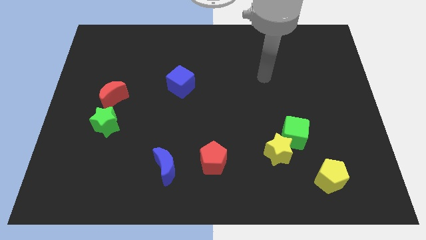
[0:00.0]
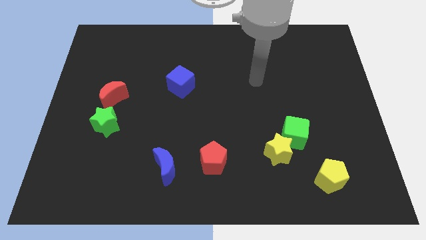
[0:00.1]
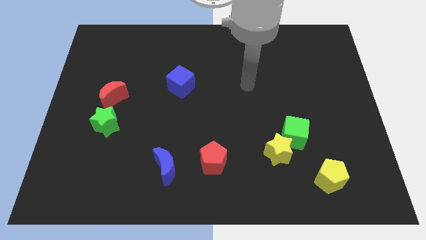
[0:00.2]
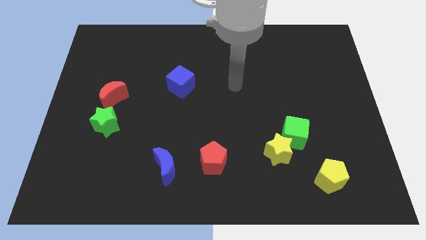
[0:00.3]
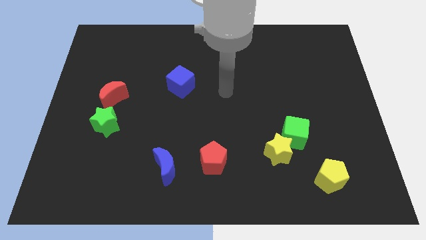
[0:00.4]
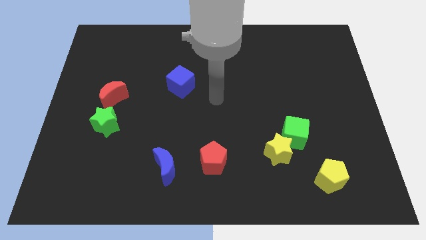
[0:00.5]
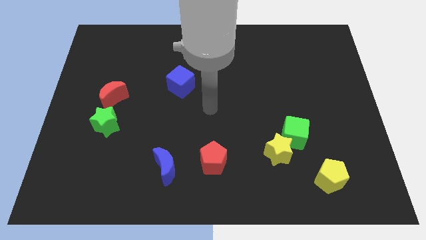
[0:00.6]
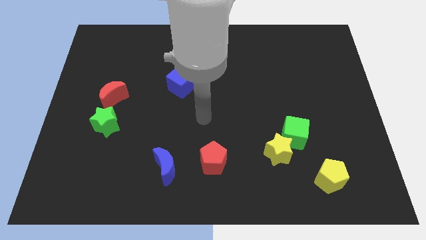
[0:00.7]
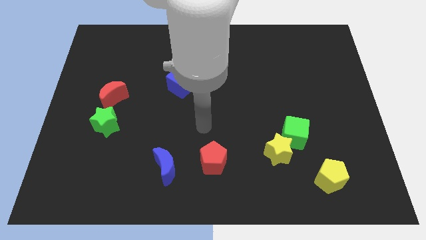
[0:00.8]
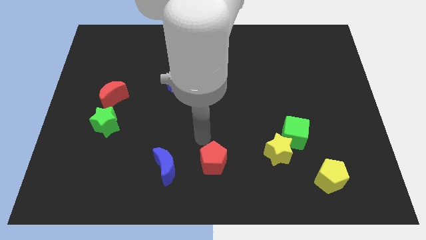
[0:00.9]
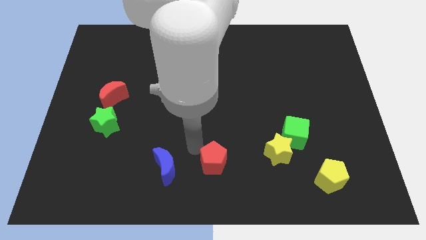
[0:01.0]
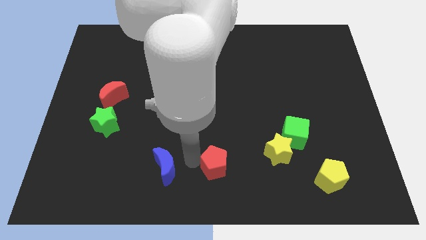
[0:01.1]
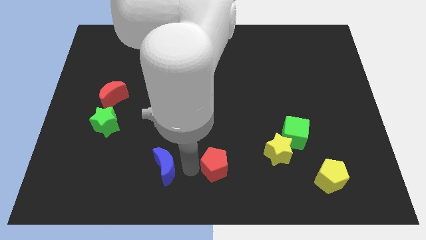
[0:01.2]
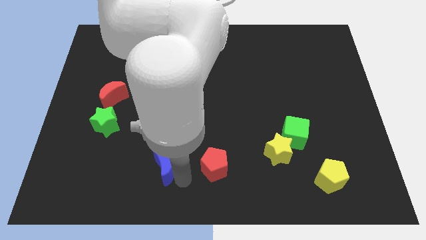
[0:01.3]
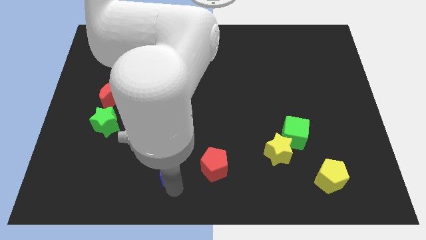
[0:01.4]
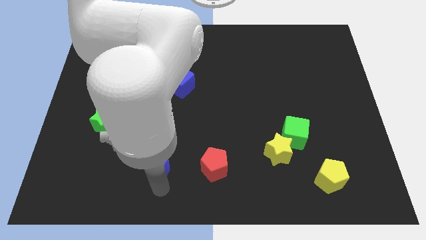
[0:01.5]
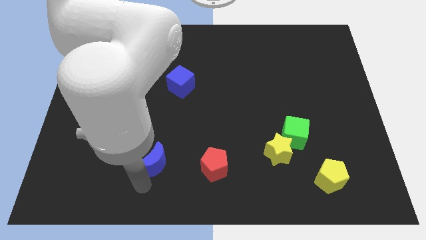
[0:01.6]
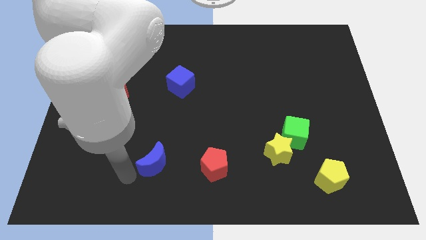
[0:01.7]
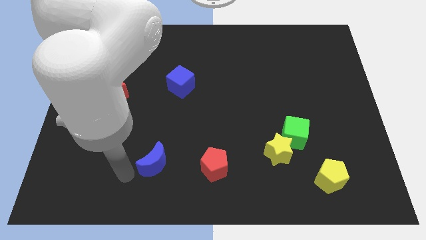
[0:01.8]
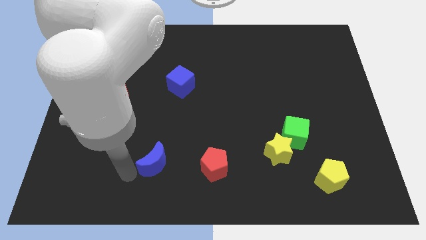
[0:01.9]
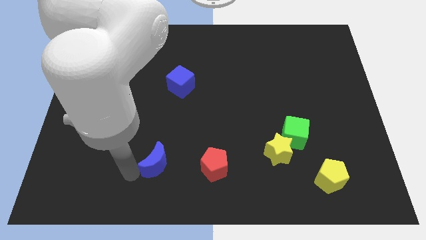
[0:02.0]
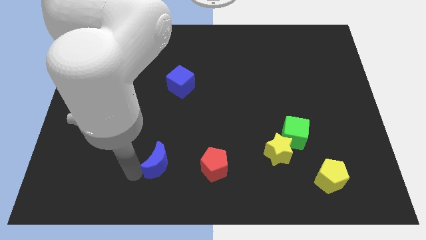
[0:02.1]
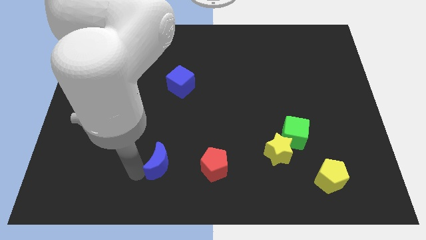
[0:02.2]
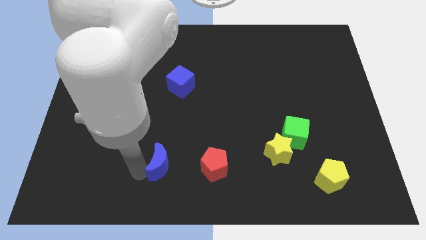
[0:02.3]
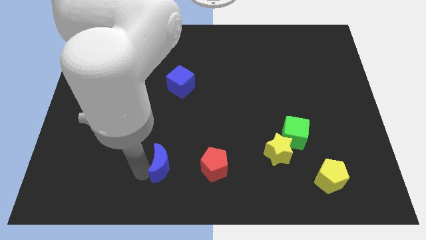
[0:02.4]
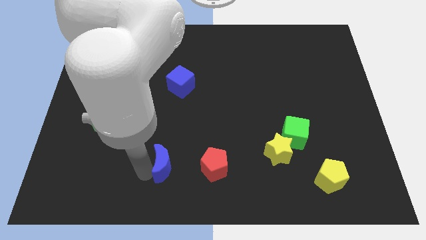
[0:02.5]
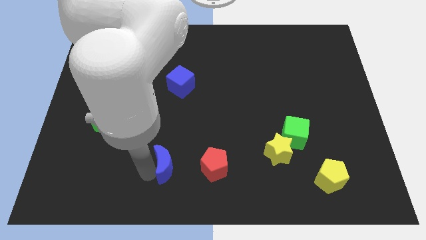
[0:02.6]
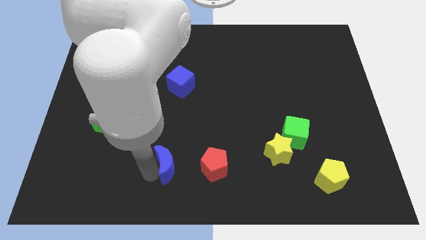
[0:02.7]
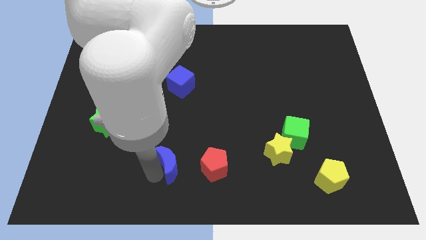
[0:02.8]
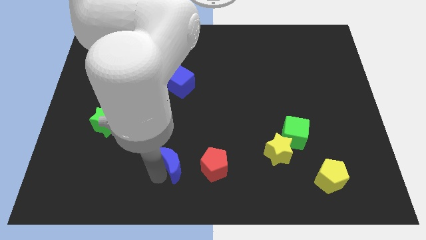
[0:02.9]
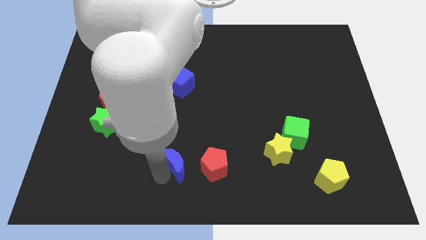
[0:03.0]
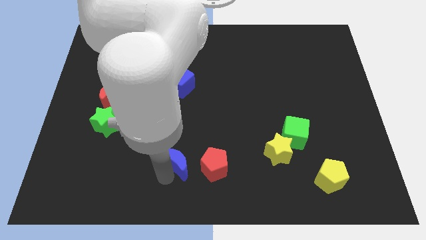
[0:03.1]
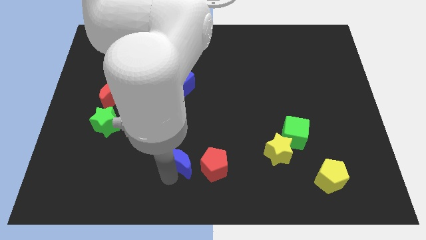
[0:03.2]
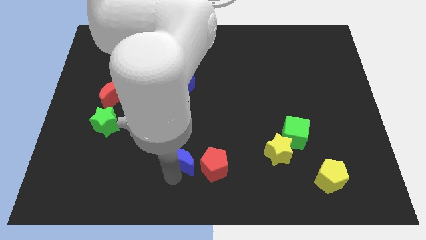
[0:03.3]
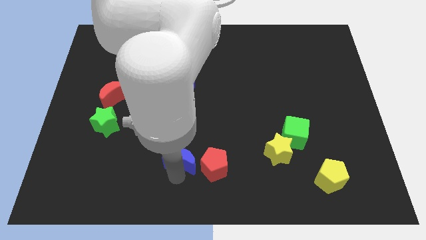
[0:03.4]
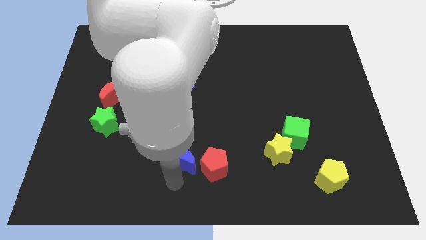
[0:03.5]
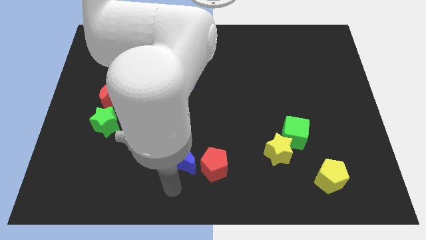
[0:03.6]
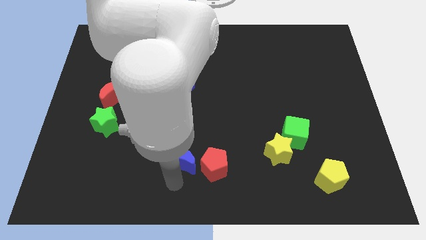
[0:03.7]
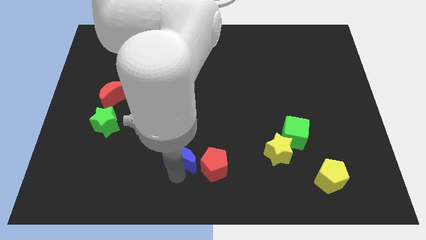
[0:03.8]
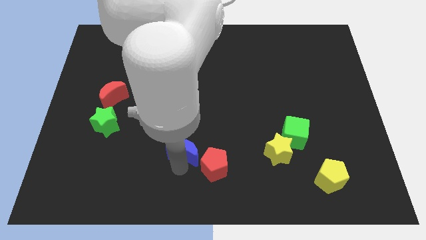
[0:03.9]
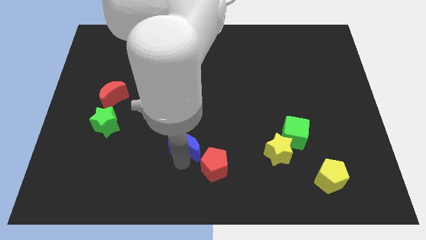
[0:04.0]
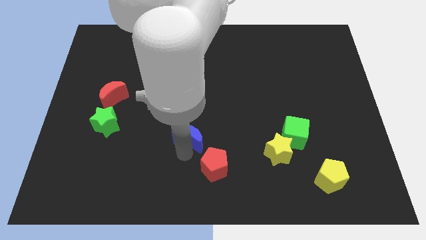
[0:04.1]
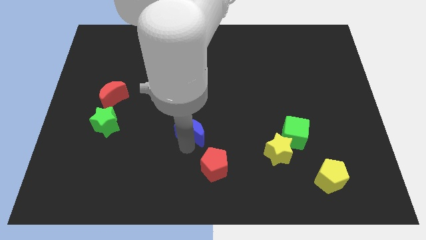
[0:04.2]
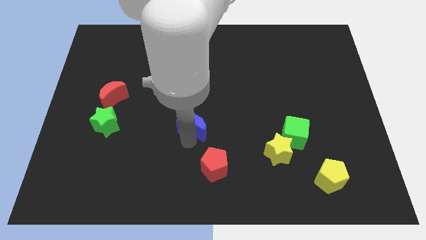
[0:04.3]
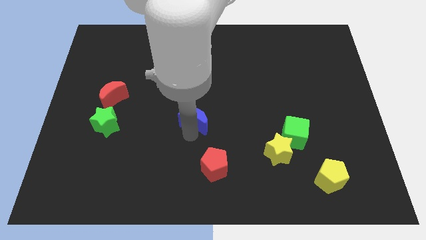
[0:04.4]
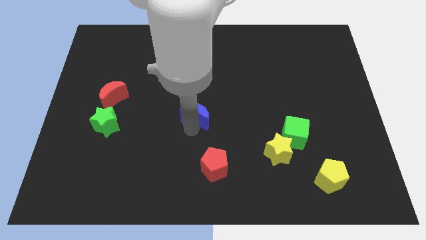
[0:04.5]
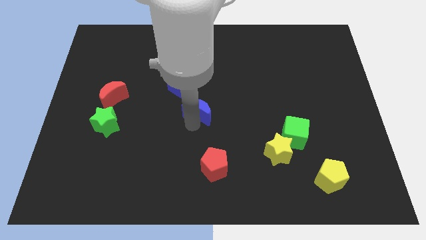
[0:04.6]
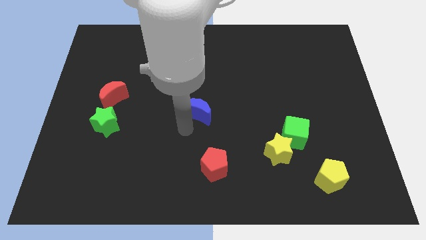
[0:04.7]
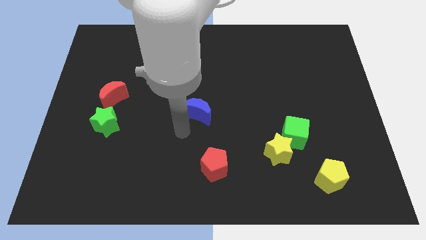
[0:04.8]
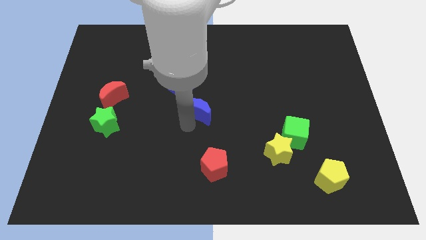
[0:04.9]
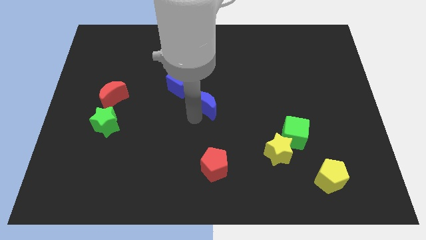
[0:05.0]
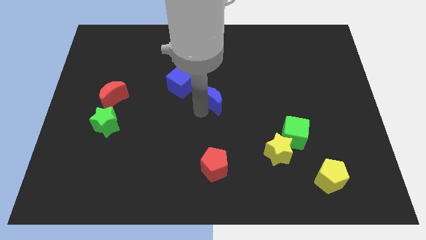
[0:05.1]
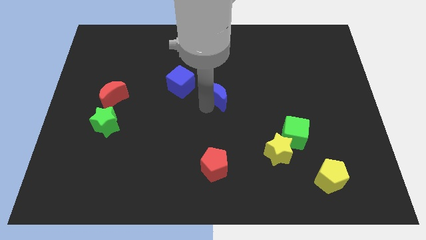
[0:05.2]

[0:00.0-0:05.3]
slide the blue moon just right of the blue cube

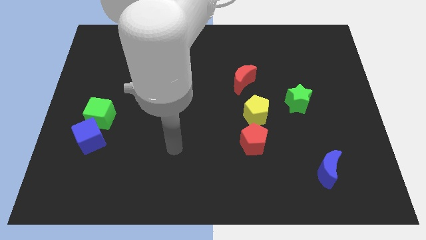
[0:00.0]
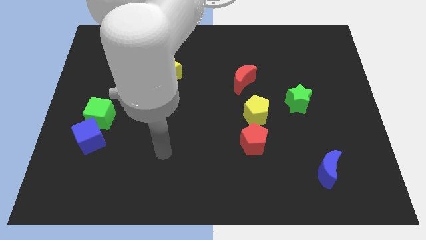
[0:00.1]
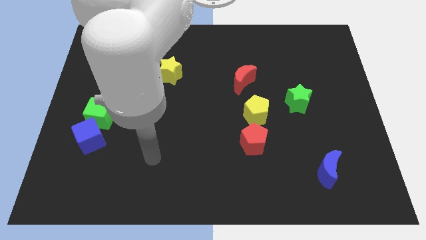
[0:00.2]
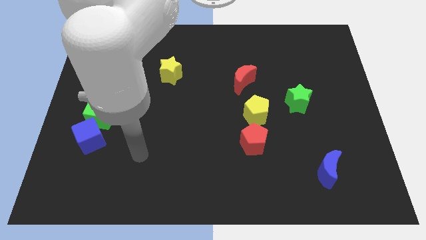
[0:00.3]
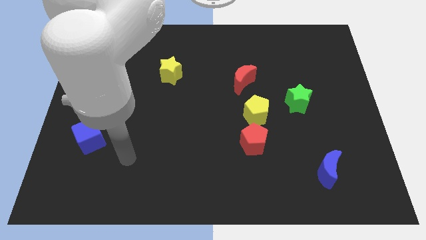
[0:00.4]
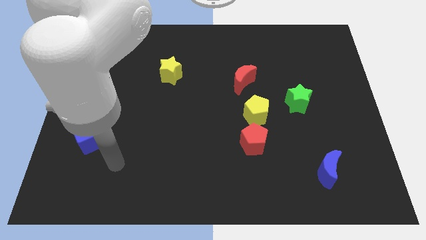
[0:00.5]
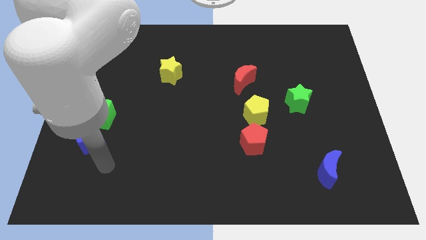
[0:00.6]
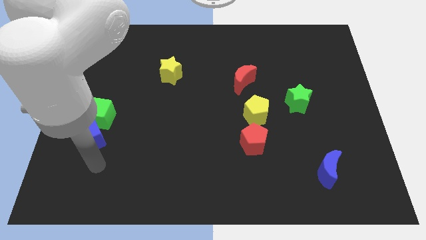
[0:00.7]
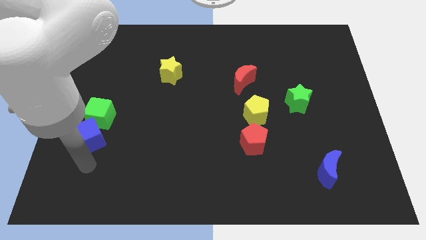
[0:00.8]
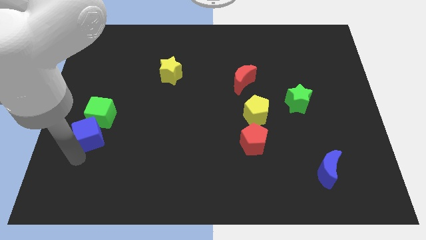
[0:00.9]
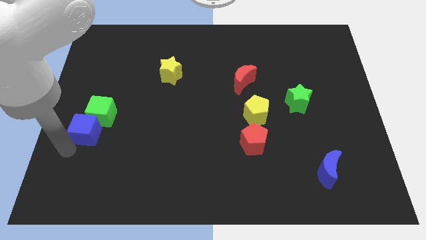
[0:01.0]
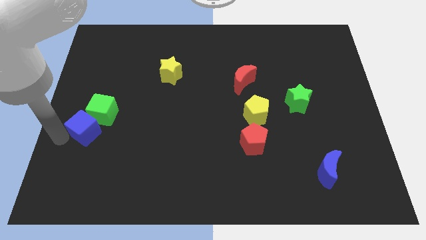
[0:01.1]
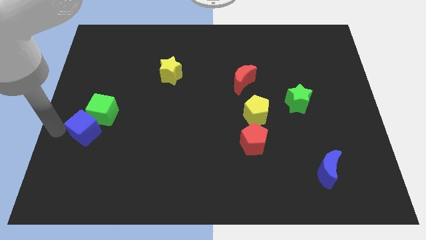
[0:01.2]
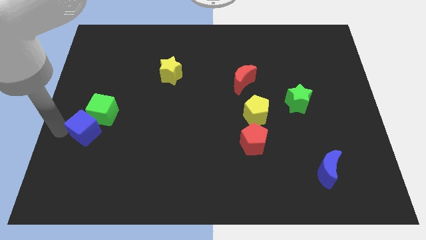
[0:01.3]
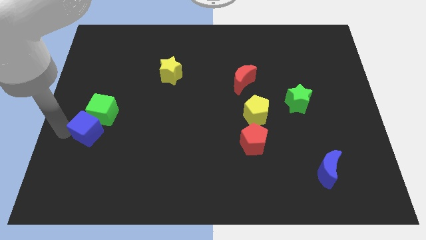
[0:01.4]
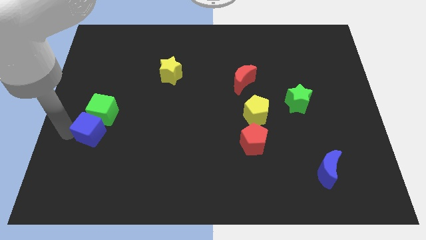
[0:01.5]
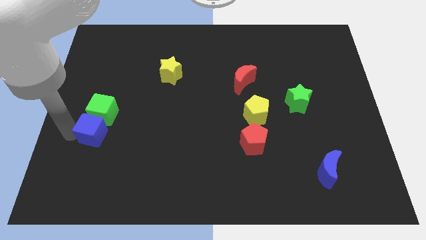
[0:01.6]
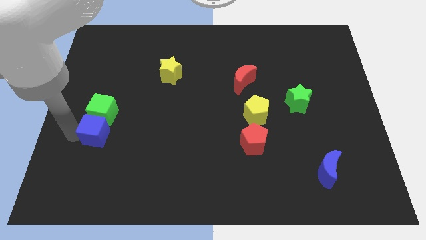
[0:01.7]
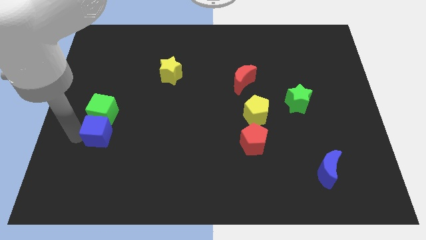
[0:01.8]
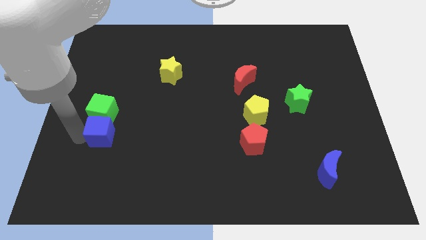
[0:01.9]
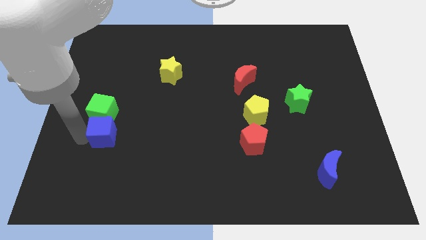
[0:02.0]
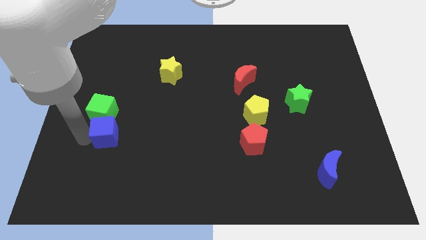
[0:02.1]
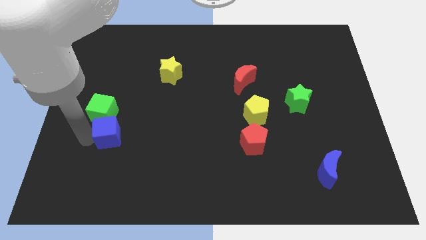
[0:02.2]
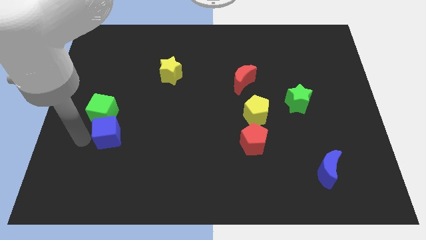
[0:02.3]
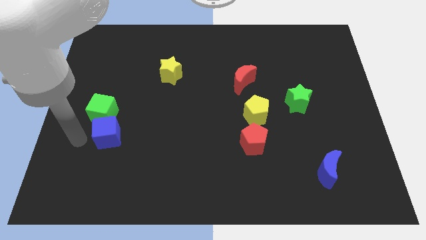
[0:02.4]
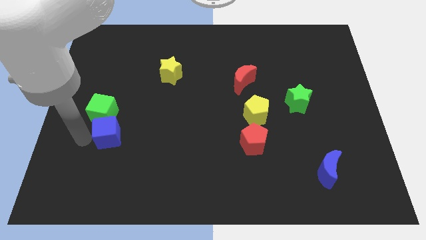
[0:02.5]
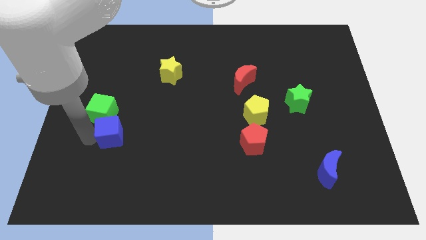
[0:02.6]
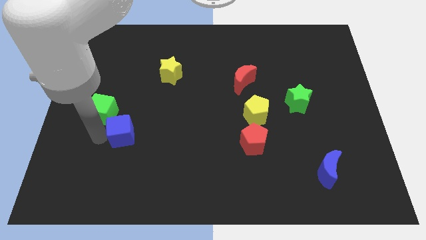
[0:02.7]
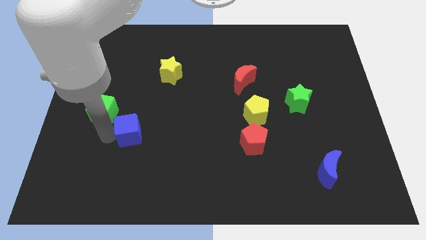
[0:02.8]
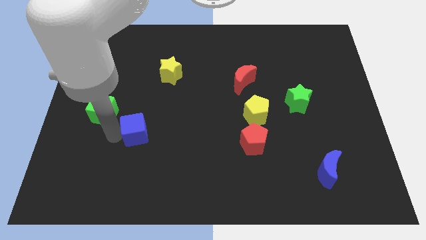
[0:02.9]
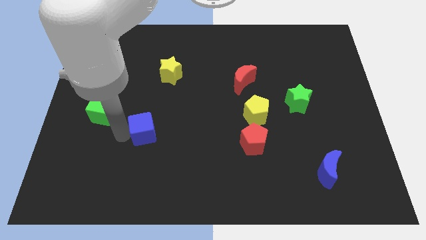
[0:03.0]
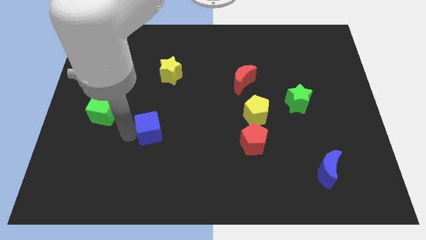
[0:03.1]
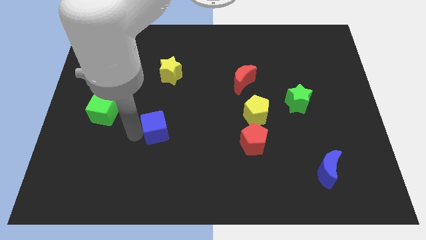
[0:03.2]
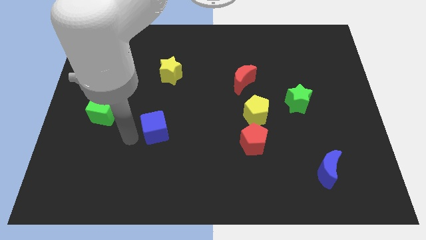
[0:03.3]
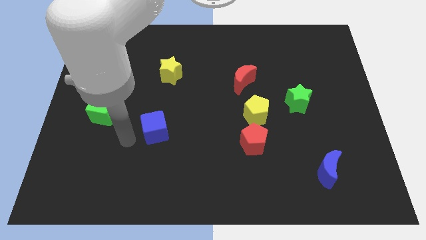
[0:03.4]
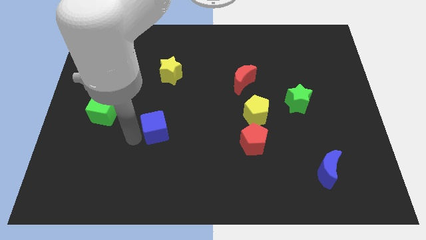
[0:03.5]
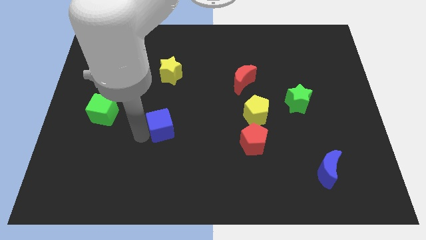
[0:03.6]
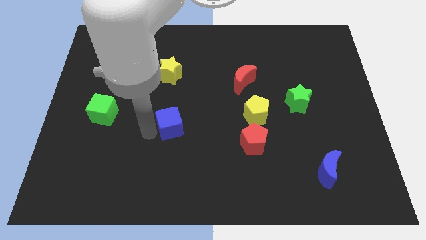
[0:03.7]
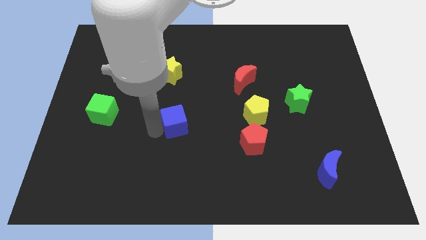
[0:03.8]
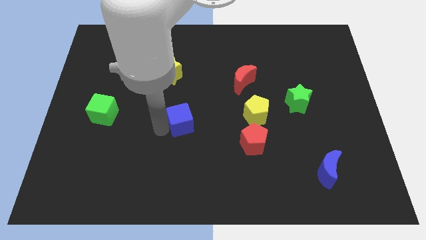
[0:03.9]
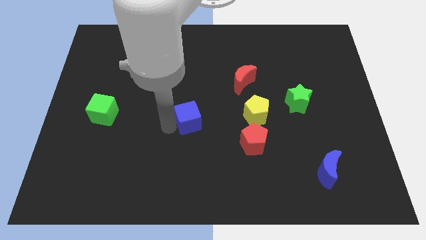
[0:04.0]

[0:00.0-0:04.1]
move the blue cube to the left of the yellow pentagon
